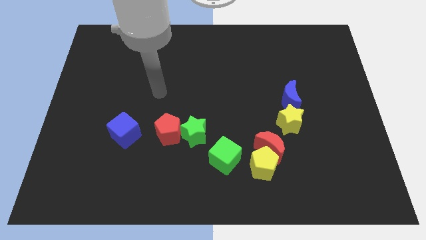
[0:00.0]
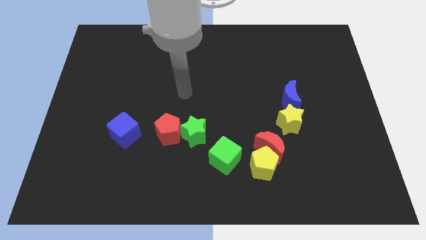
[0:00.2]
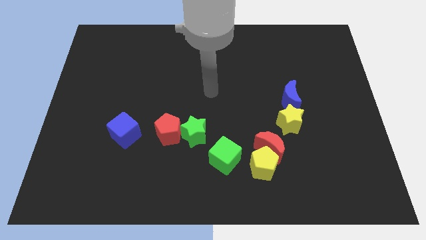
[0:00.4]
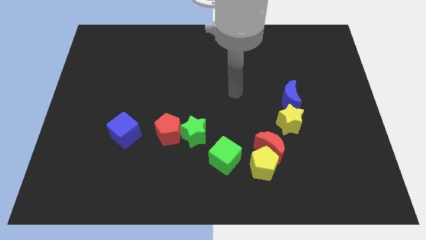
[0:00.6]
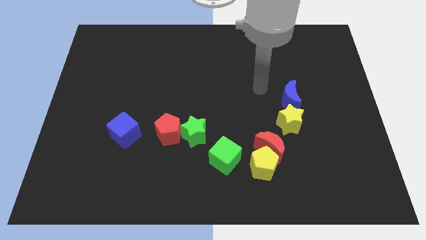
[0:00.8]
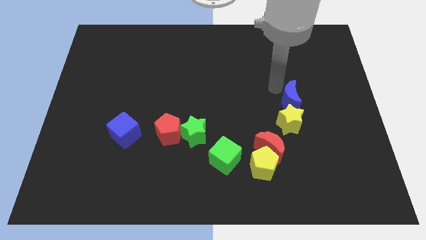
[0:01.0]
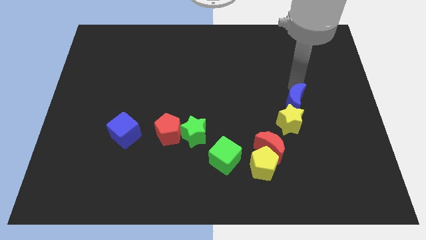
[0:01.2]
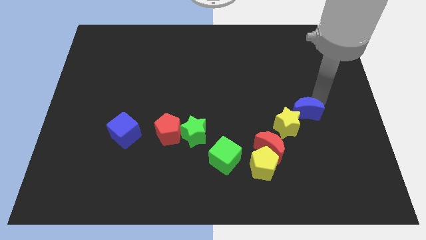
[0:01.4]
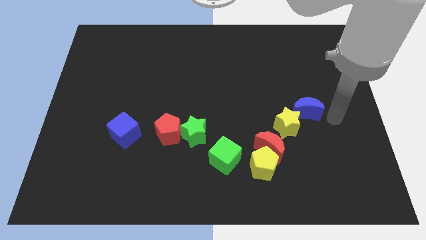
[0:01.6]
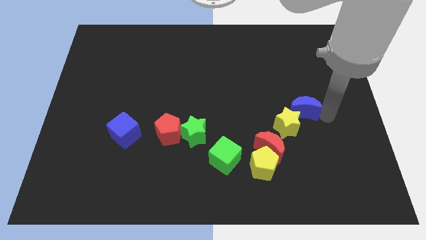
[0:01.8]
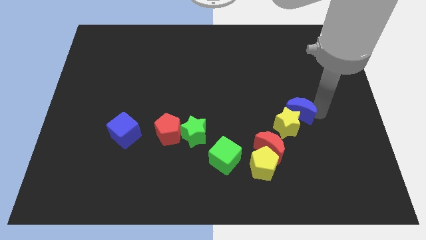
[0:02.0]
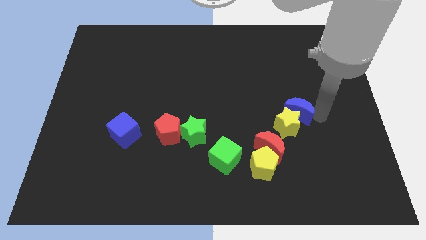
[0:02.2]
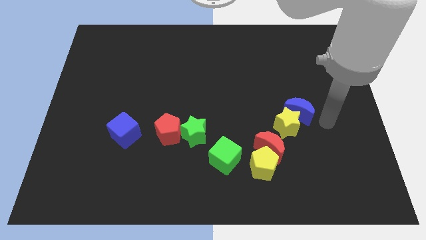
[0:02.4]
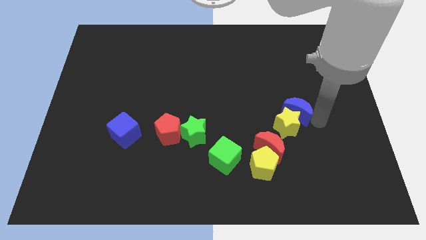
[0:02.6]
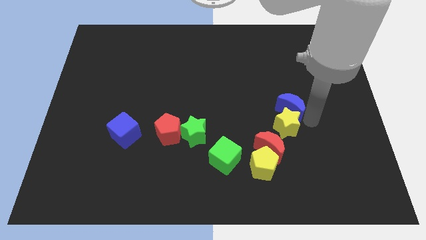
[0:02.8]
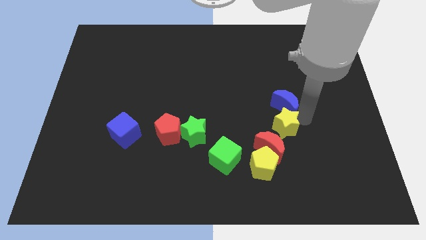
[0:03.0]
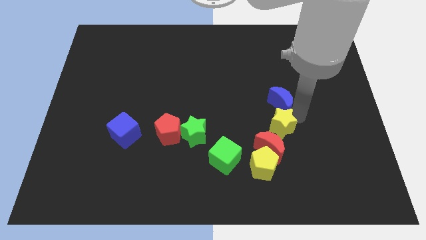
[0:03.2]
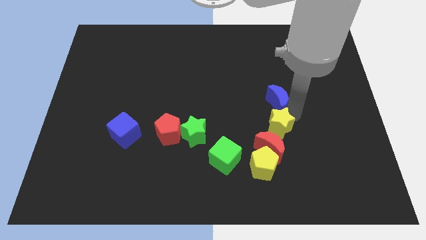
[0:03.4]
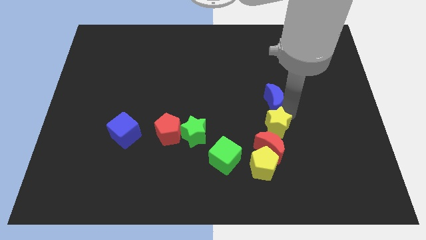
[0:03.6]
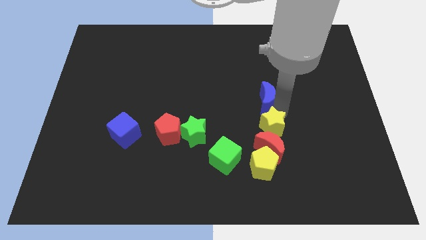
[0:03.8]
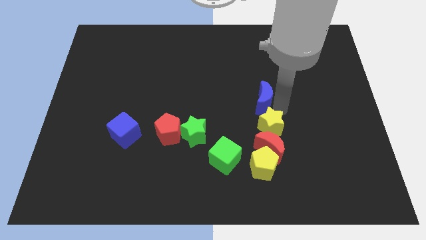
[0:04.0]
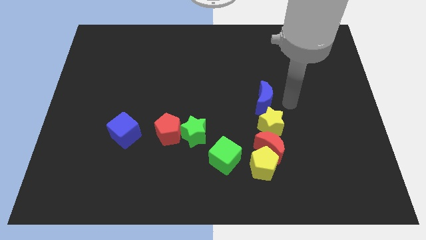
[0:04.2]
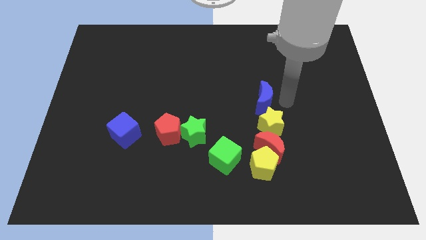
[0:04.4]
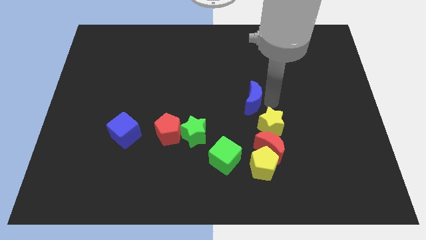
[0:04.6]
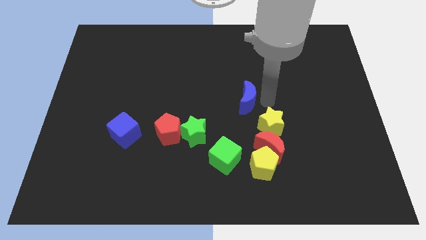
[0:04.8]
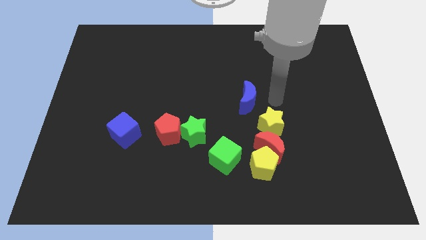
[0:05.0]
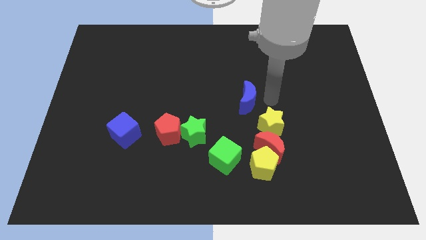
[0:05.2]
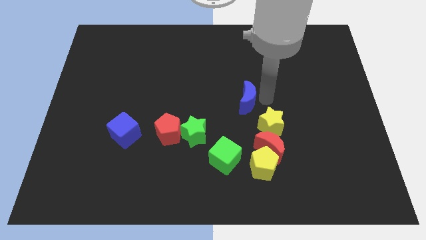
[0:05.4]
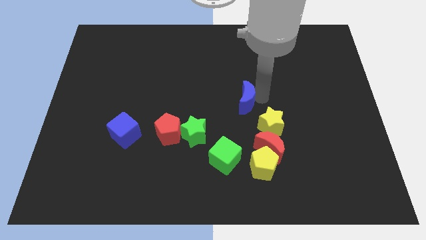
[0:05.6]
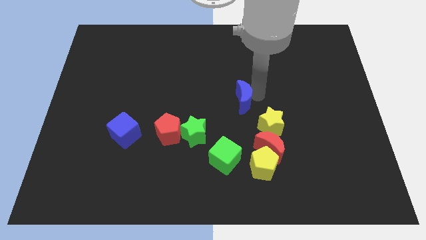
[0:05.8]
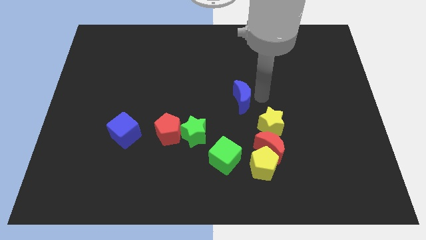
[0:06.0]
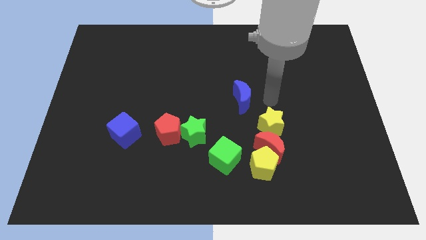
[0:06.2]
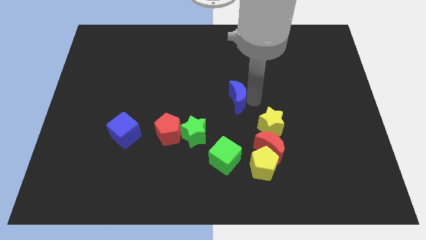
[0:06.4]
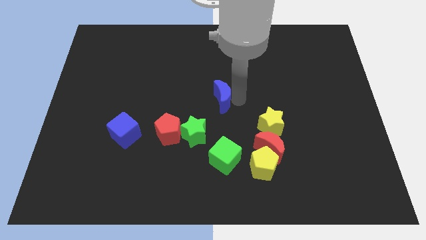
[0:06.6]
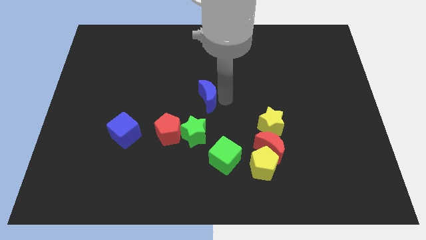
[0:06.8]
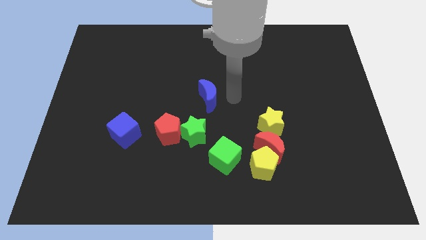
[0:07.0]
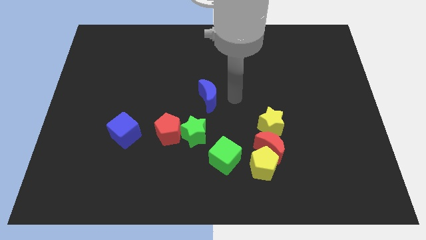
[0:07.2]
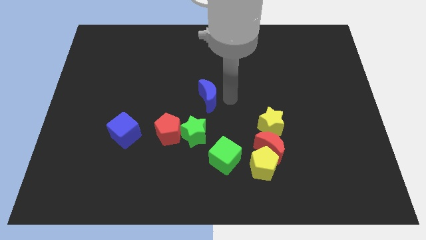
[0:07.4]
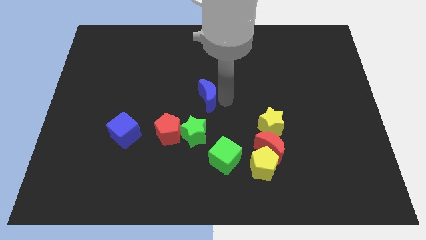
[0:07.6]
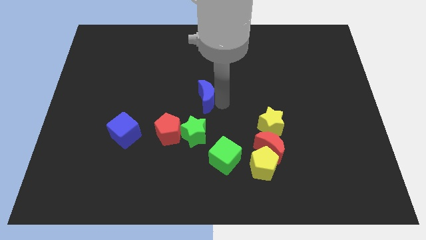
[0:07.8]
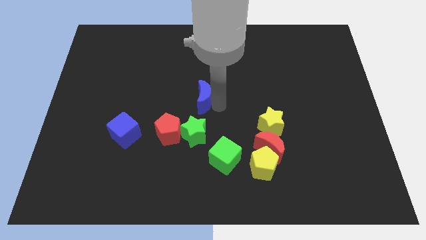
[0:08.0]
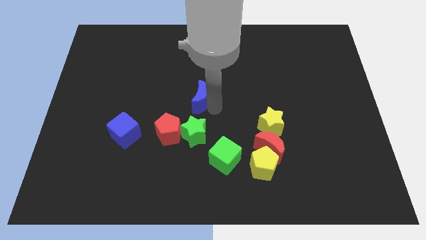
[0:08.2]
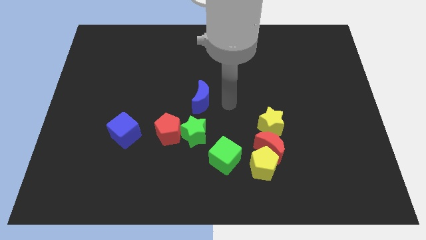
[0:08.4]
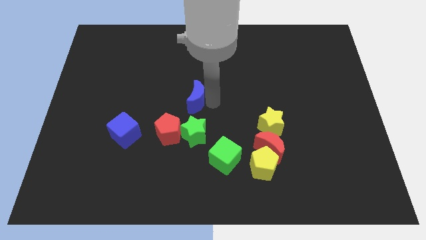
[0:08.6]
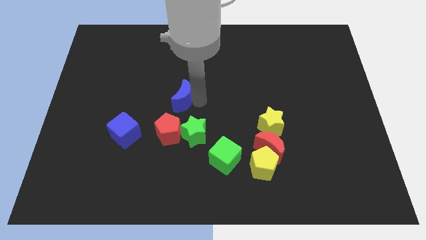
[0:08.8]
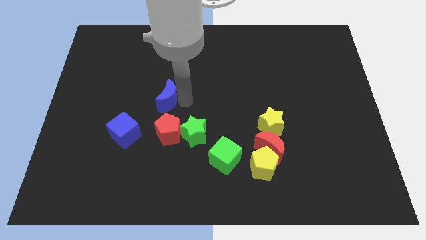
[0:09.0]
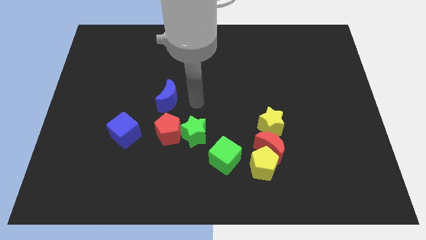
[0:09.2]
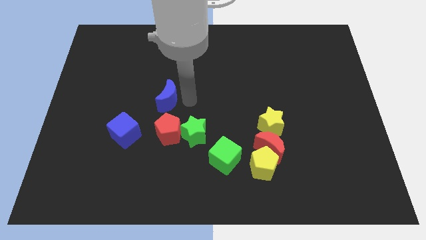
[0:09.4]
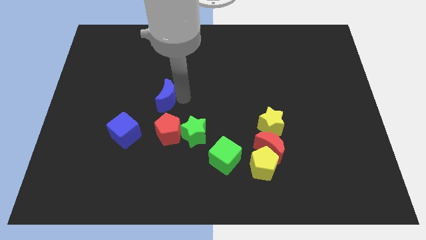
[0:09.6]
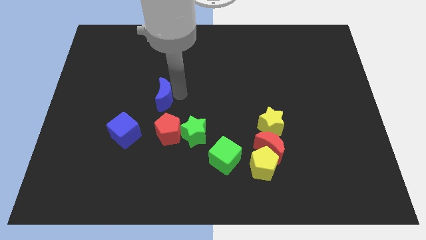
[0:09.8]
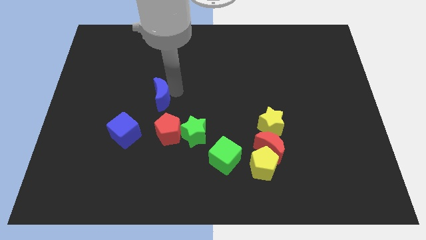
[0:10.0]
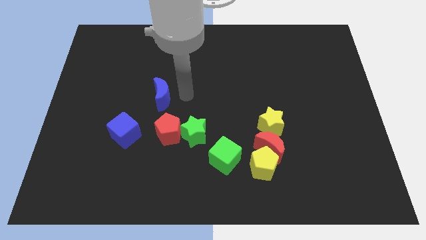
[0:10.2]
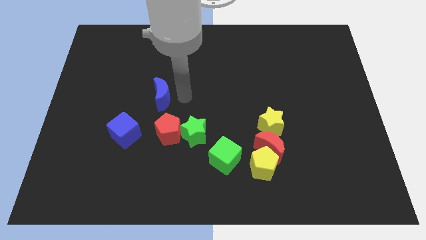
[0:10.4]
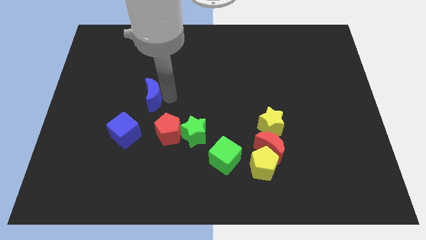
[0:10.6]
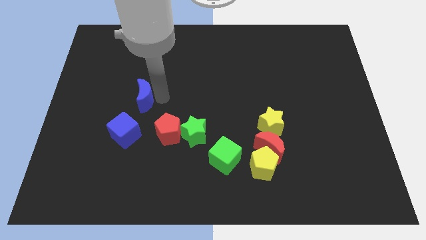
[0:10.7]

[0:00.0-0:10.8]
push the blue moon to the top side of the blue cube

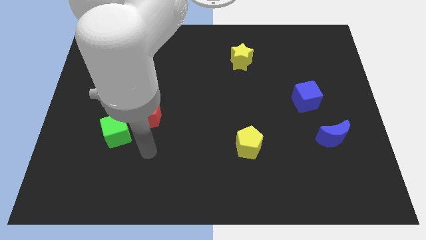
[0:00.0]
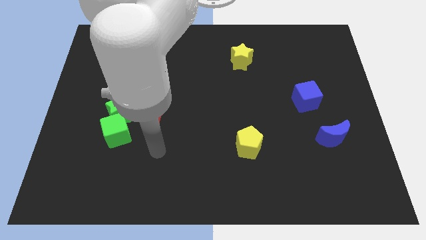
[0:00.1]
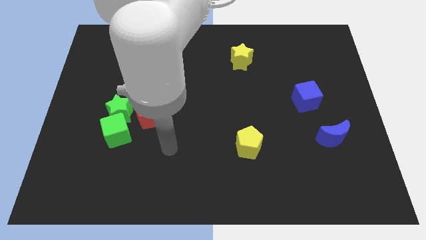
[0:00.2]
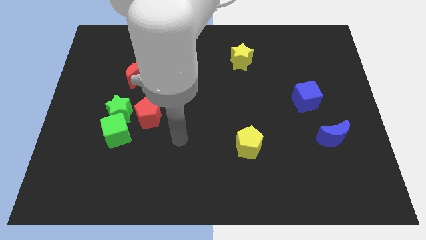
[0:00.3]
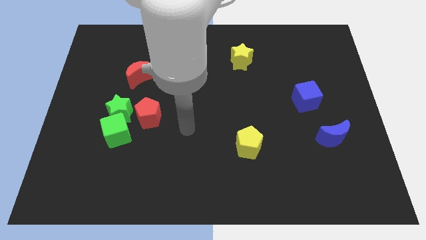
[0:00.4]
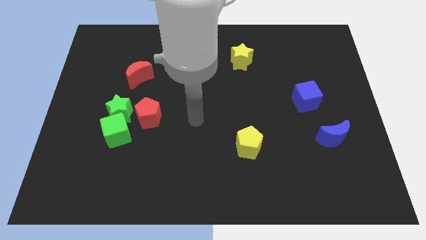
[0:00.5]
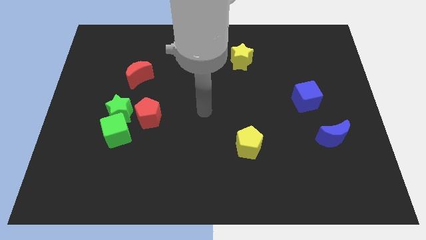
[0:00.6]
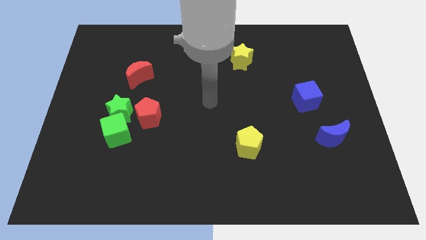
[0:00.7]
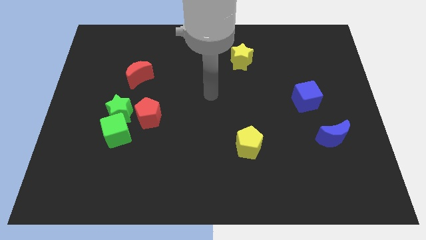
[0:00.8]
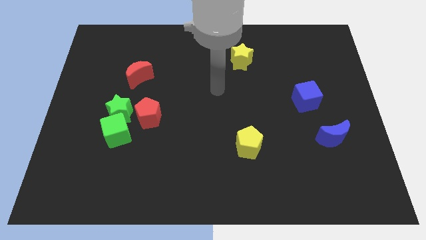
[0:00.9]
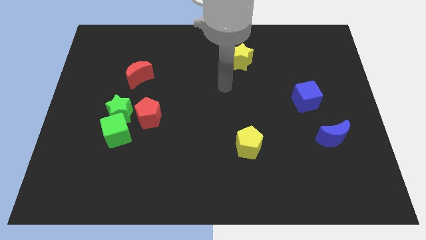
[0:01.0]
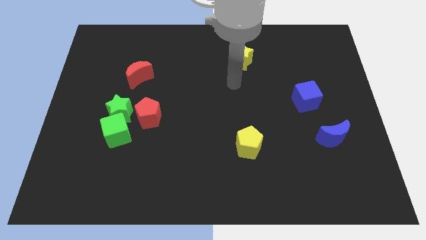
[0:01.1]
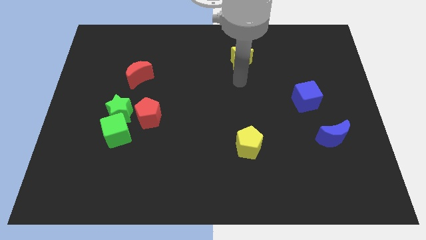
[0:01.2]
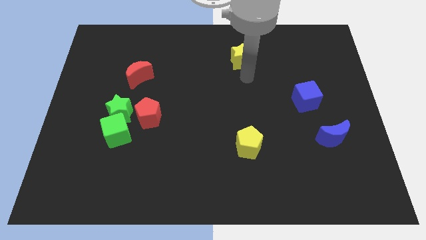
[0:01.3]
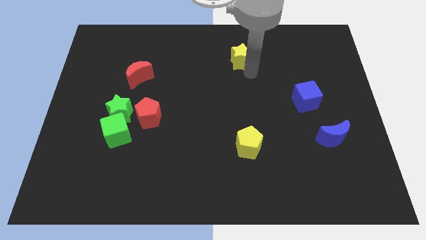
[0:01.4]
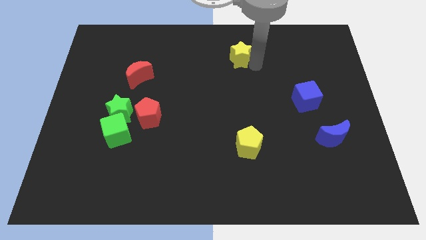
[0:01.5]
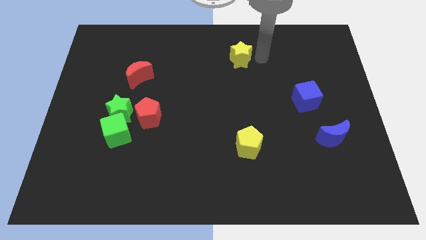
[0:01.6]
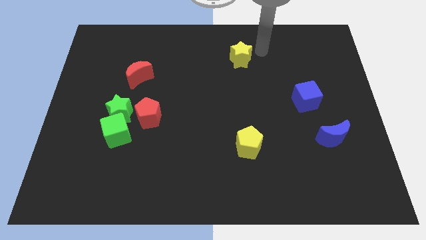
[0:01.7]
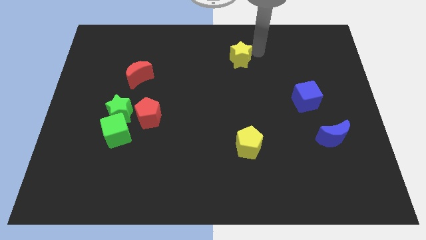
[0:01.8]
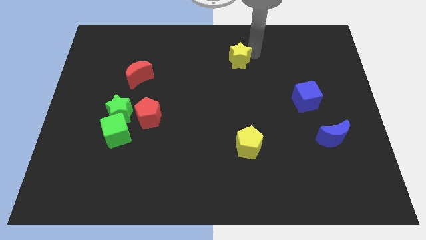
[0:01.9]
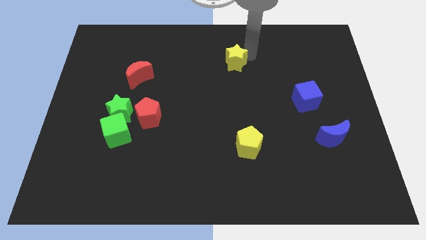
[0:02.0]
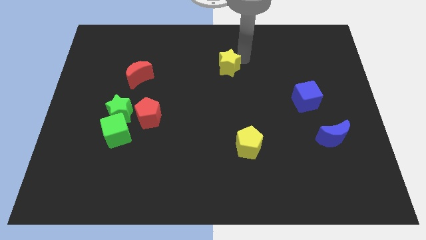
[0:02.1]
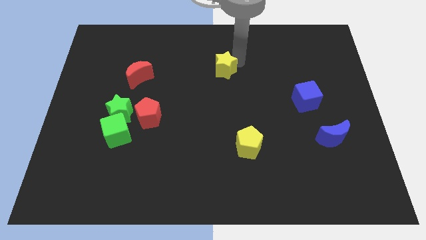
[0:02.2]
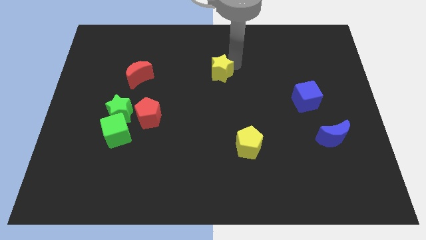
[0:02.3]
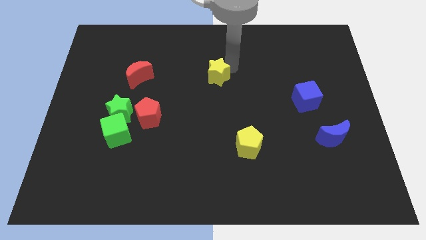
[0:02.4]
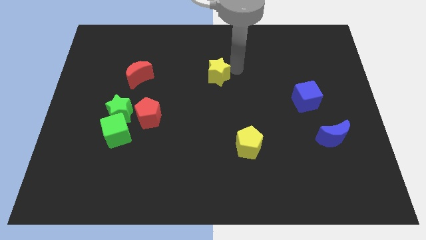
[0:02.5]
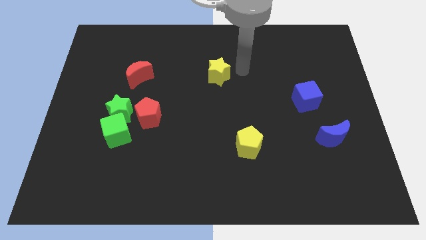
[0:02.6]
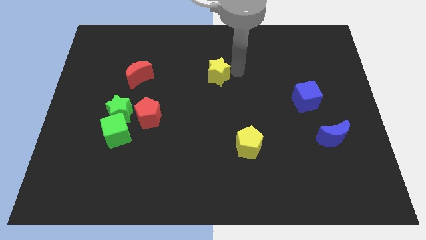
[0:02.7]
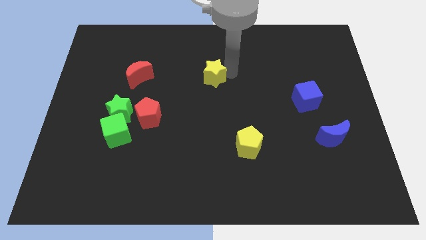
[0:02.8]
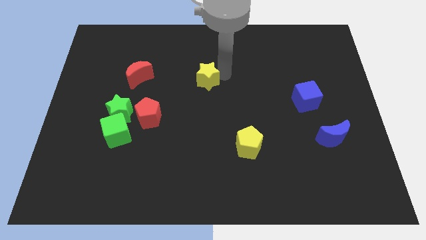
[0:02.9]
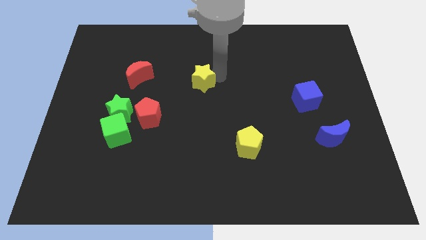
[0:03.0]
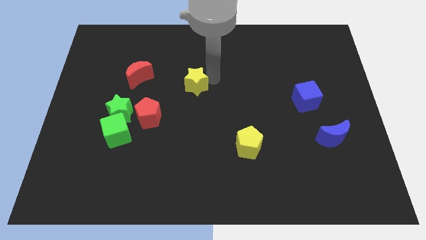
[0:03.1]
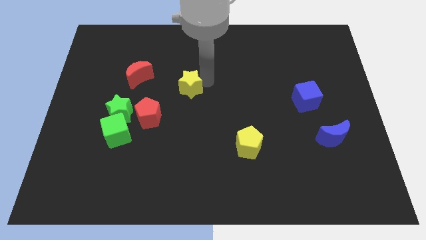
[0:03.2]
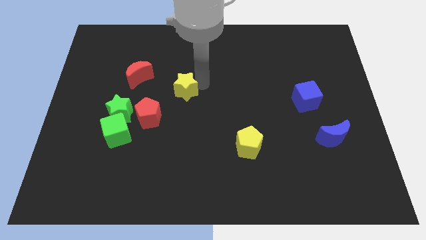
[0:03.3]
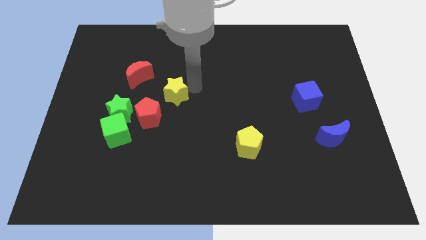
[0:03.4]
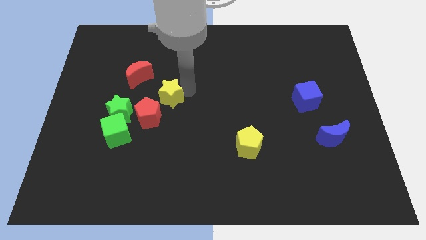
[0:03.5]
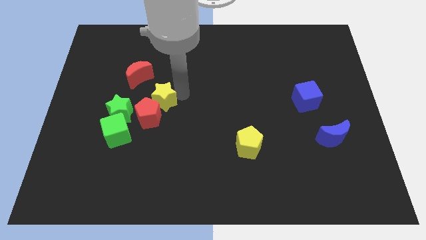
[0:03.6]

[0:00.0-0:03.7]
put the yellow star to the top right side of the green star
